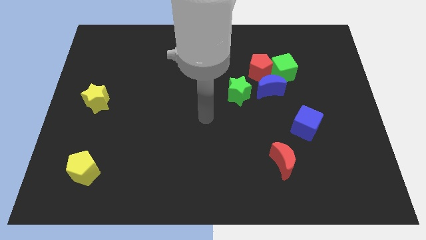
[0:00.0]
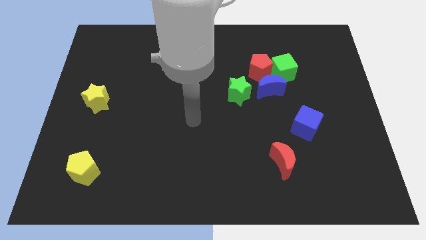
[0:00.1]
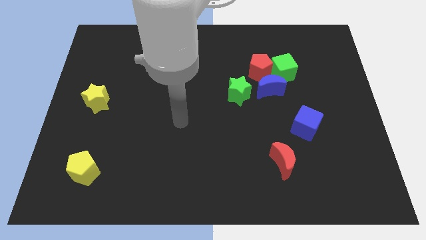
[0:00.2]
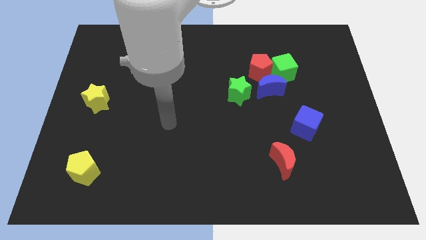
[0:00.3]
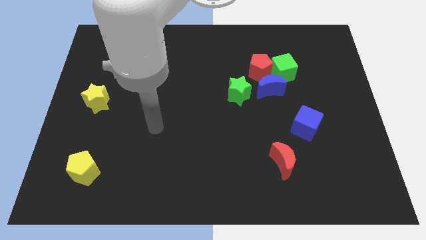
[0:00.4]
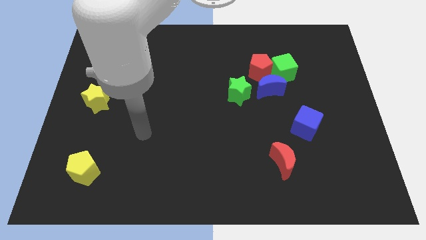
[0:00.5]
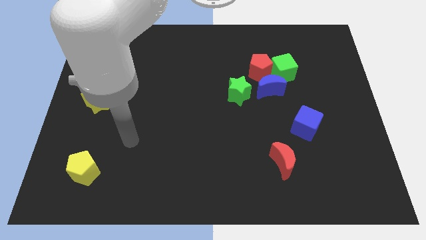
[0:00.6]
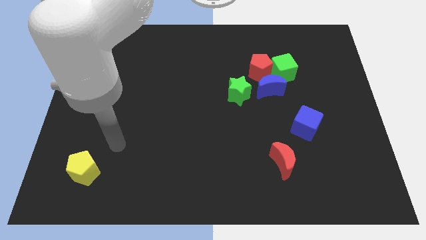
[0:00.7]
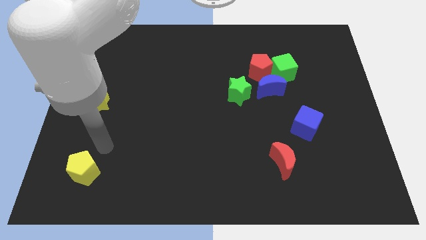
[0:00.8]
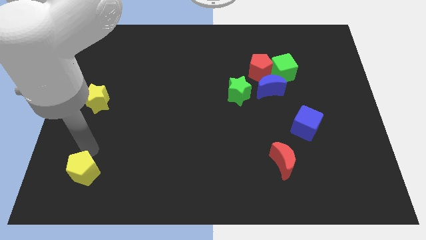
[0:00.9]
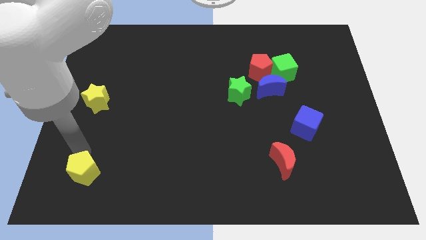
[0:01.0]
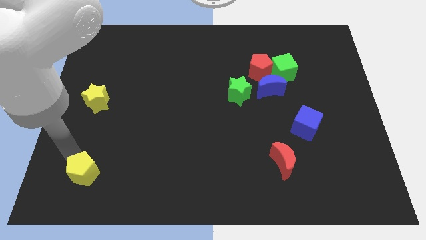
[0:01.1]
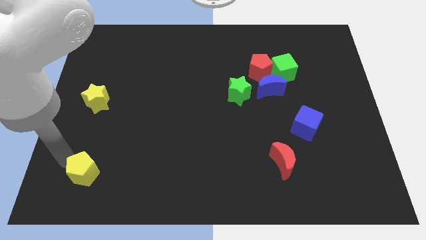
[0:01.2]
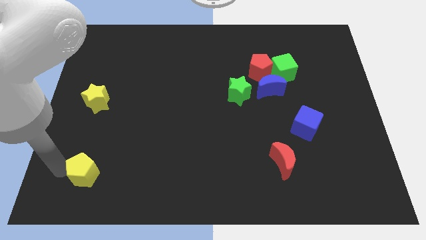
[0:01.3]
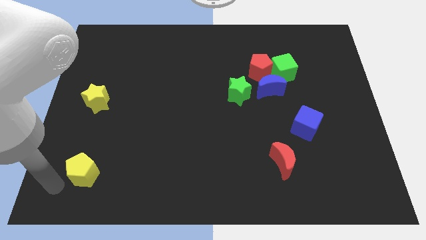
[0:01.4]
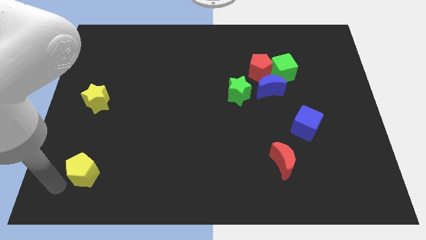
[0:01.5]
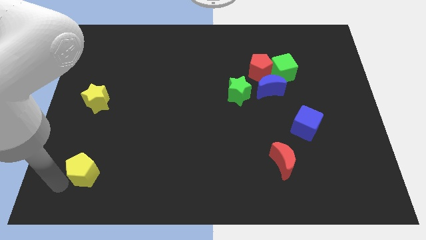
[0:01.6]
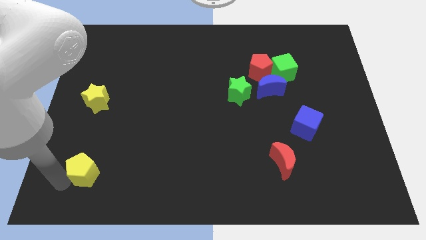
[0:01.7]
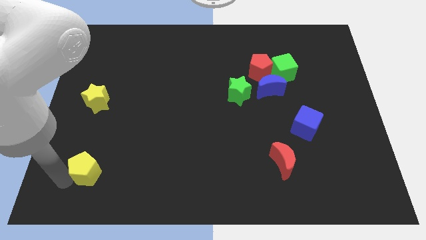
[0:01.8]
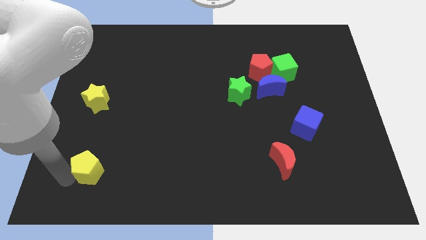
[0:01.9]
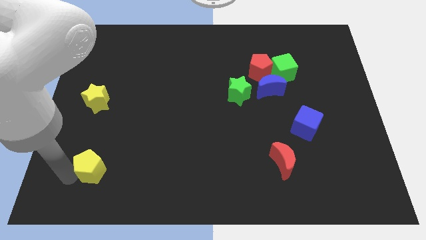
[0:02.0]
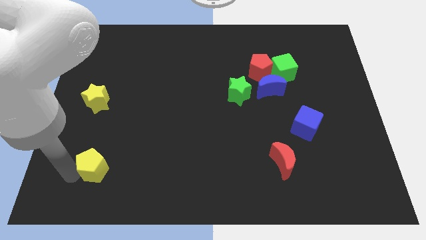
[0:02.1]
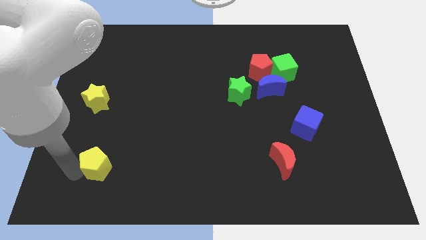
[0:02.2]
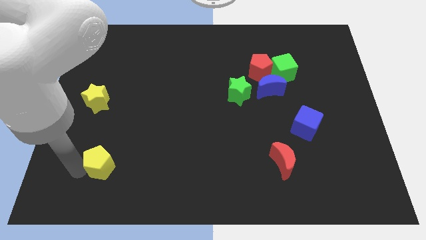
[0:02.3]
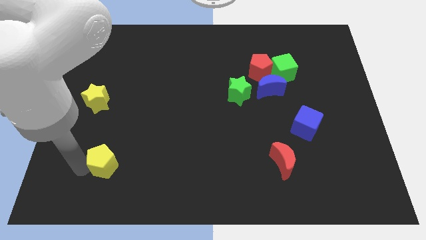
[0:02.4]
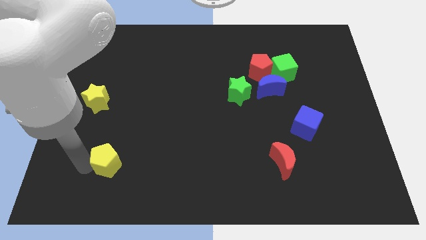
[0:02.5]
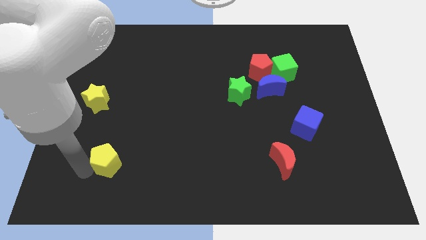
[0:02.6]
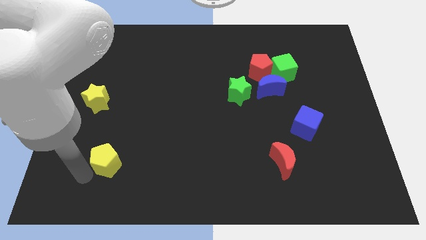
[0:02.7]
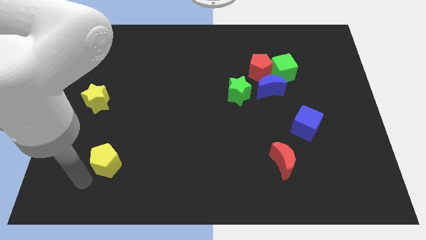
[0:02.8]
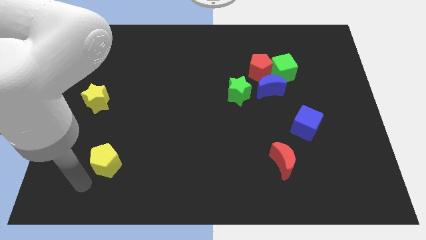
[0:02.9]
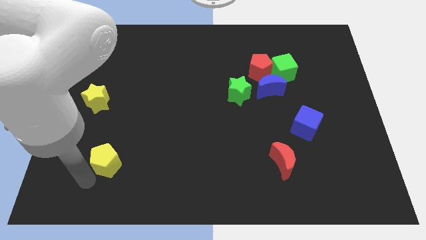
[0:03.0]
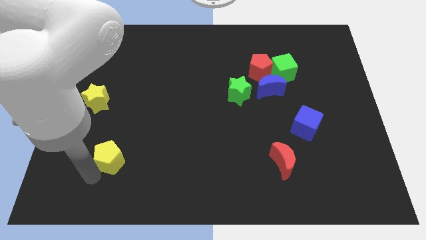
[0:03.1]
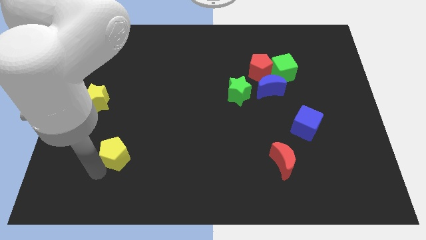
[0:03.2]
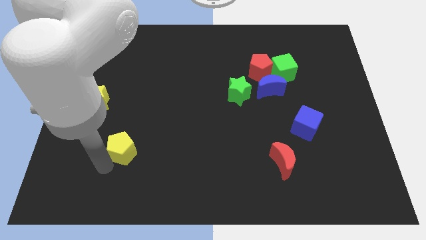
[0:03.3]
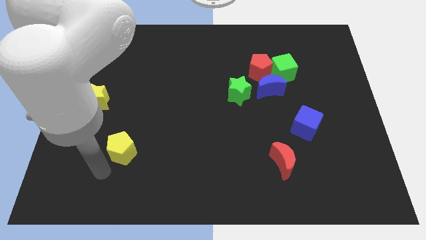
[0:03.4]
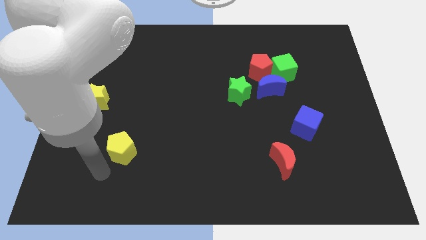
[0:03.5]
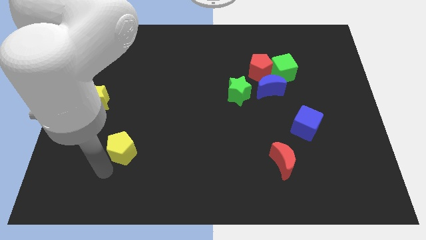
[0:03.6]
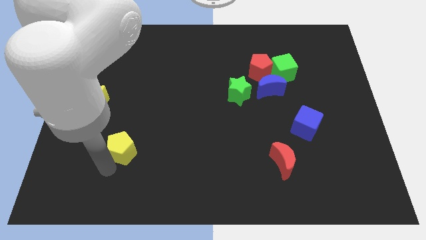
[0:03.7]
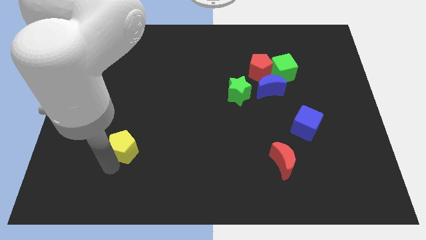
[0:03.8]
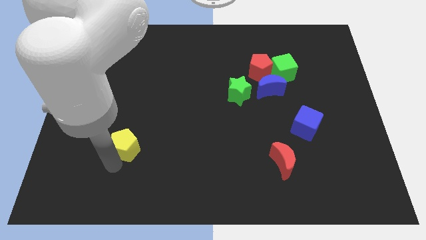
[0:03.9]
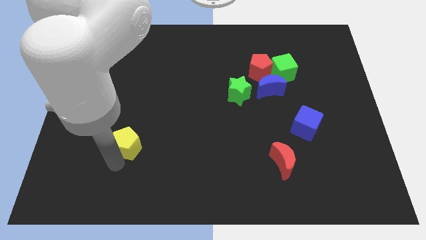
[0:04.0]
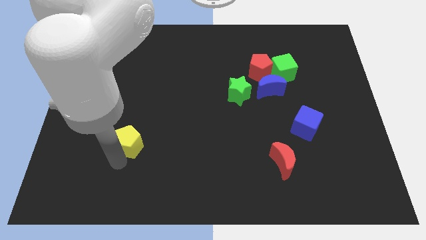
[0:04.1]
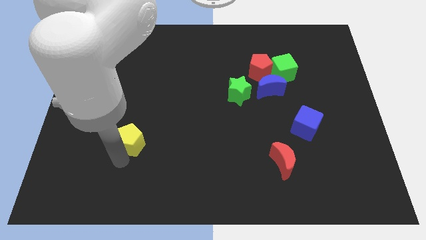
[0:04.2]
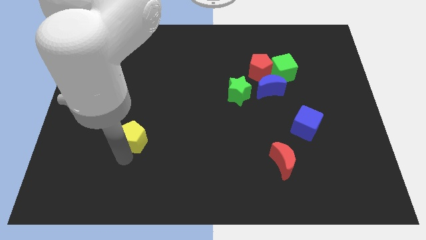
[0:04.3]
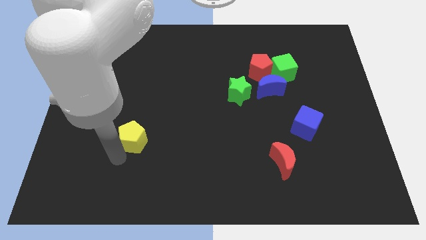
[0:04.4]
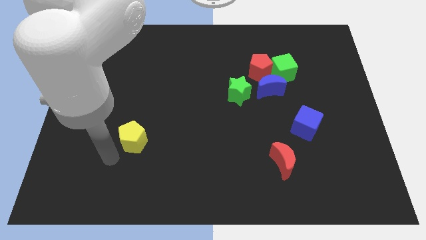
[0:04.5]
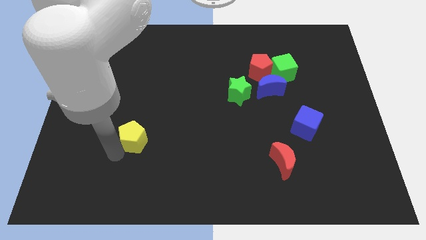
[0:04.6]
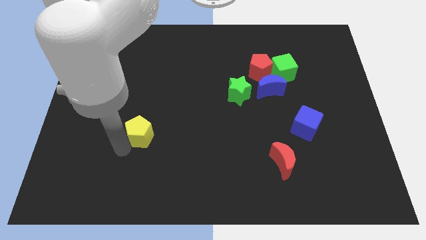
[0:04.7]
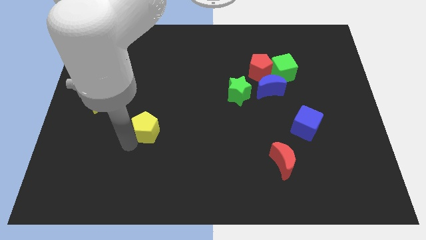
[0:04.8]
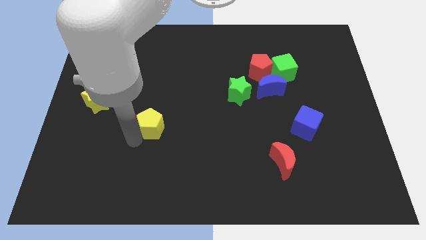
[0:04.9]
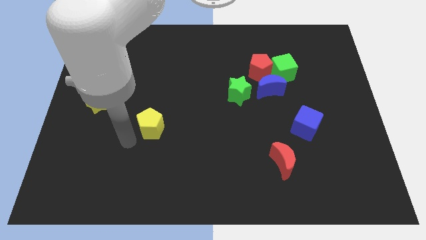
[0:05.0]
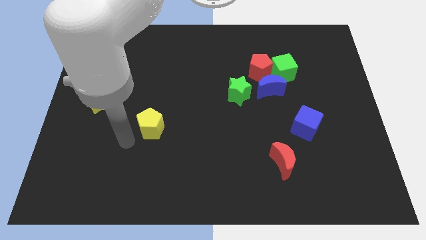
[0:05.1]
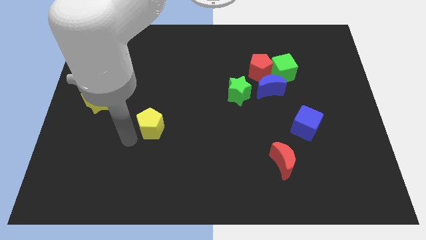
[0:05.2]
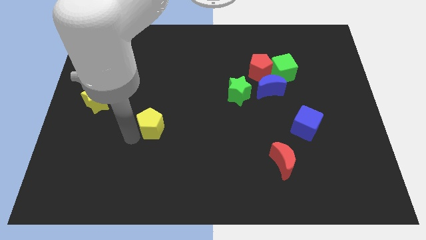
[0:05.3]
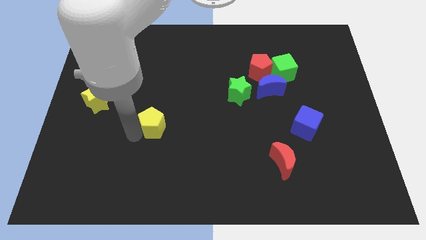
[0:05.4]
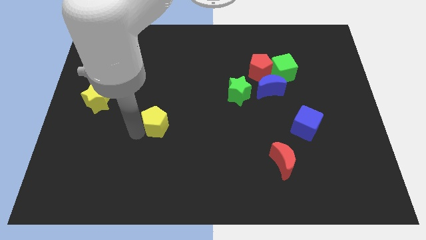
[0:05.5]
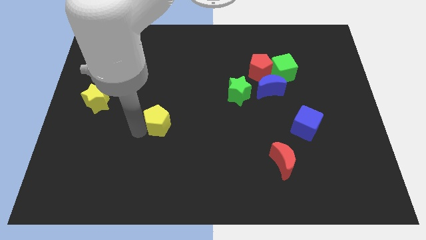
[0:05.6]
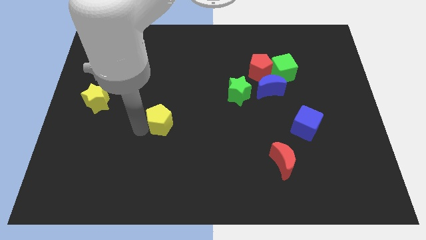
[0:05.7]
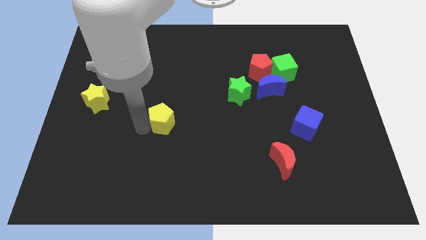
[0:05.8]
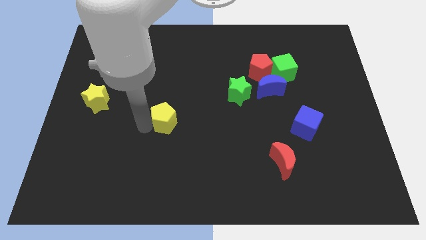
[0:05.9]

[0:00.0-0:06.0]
put the yellow pentagon to the center

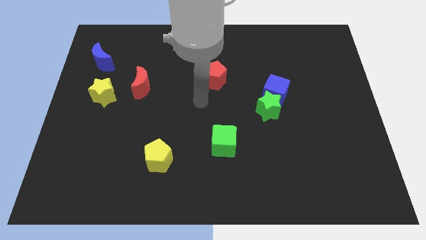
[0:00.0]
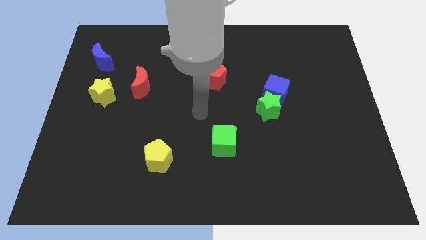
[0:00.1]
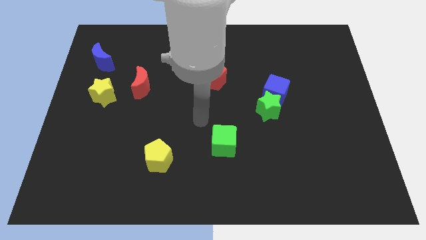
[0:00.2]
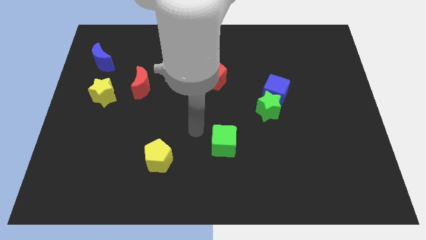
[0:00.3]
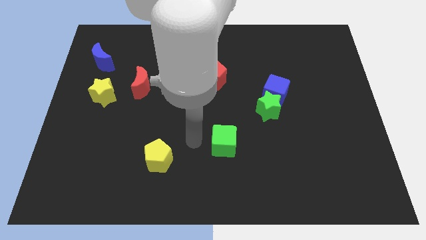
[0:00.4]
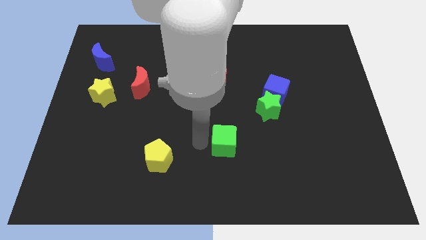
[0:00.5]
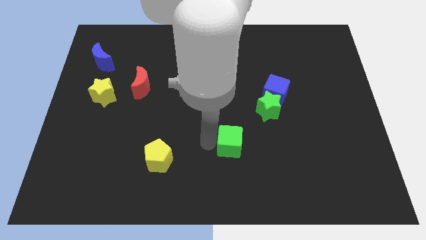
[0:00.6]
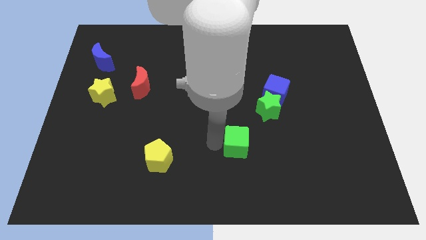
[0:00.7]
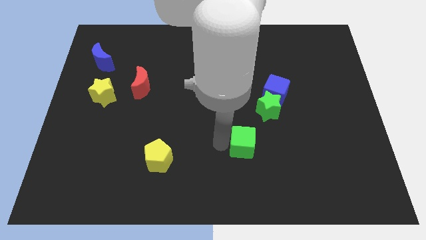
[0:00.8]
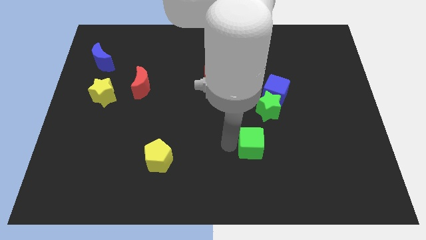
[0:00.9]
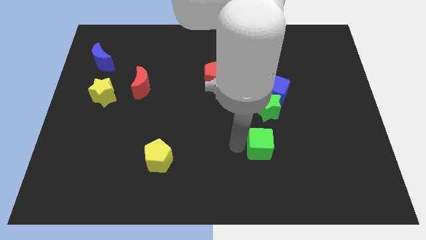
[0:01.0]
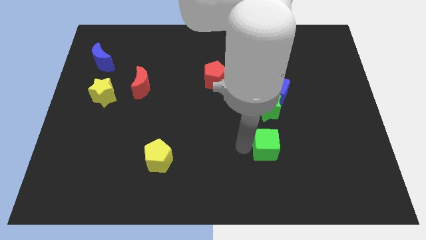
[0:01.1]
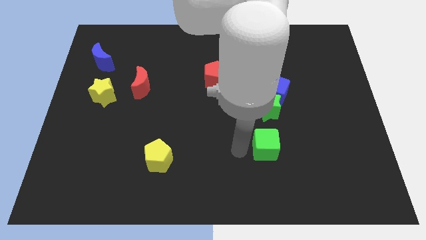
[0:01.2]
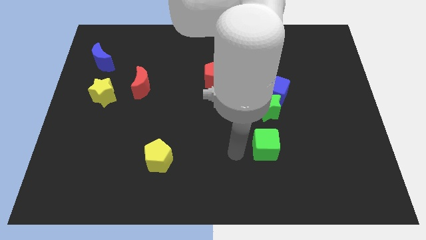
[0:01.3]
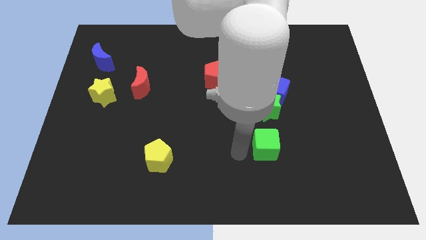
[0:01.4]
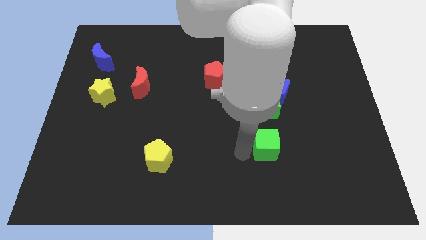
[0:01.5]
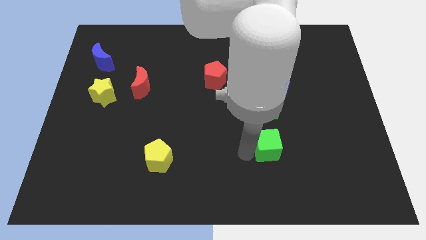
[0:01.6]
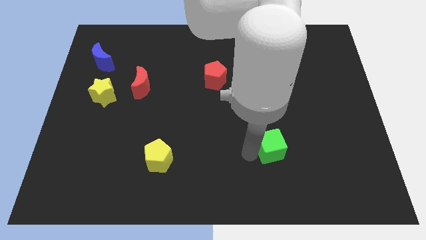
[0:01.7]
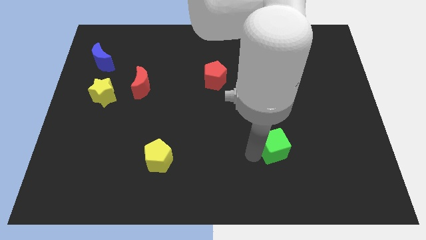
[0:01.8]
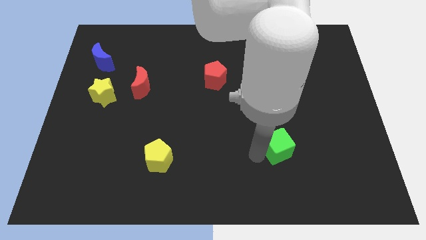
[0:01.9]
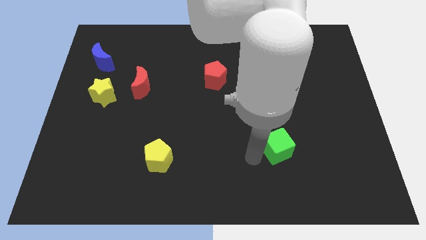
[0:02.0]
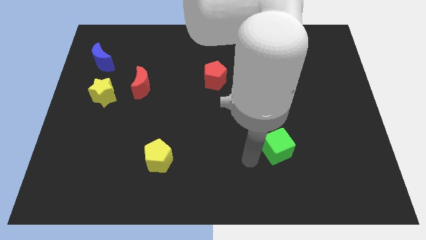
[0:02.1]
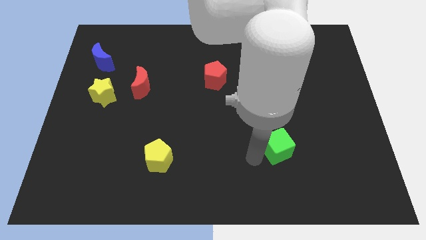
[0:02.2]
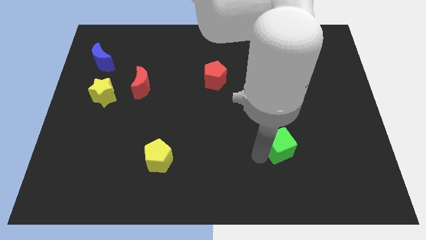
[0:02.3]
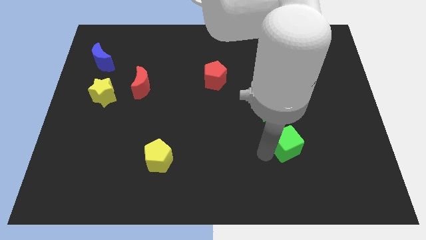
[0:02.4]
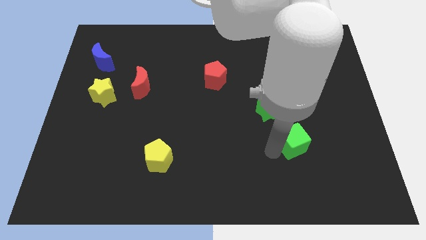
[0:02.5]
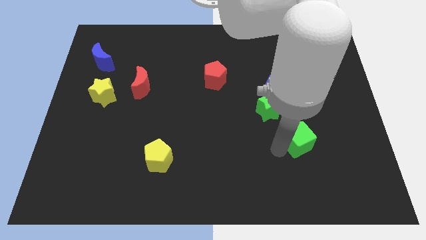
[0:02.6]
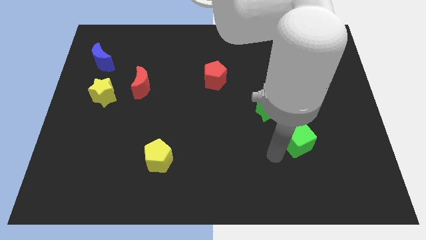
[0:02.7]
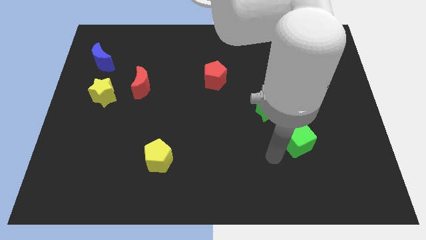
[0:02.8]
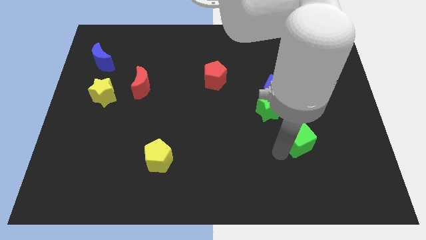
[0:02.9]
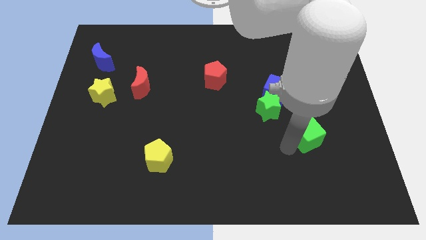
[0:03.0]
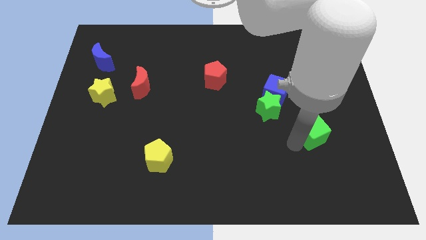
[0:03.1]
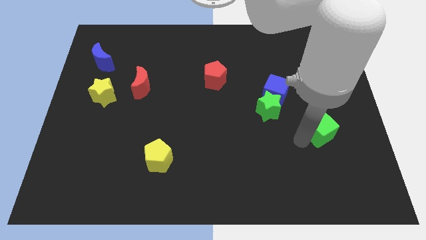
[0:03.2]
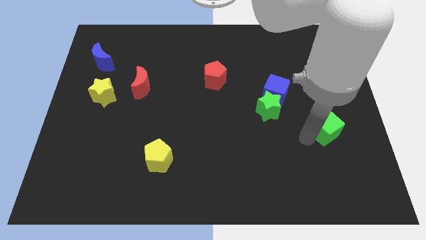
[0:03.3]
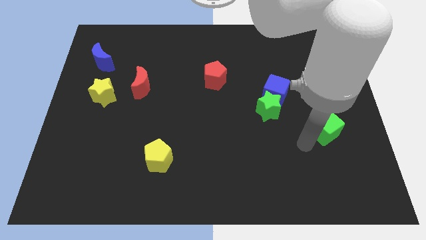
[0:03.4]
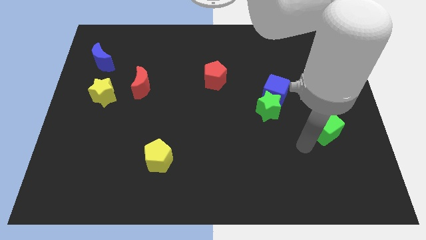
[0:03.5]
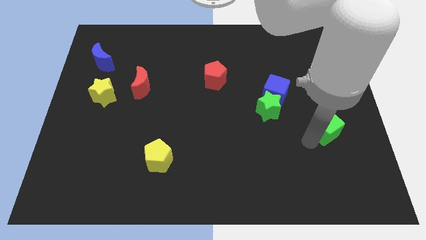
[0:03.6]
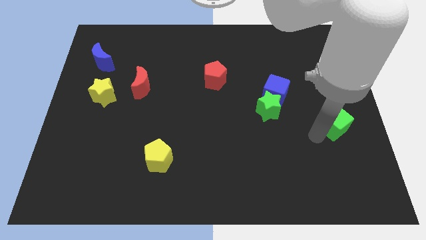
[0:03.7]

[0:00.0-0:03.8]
move the green cube to the center right
